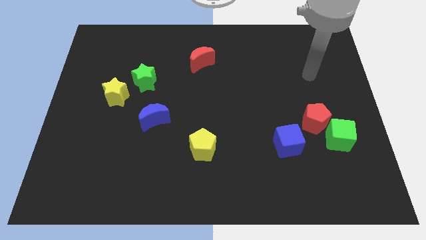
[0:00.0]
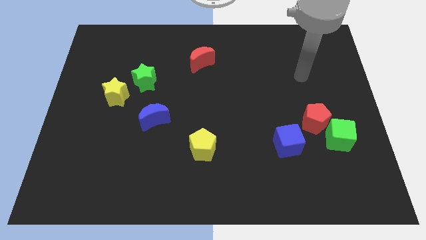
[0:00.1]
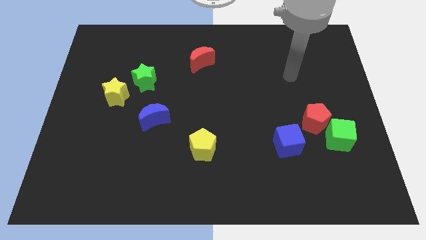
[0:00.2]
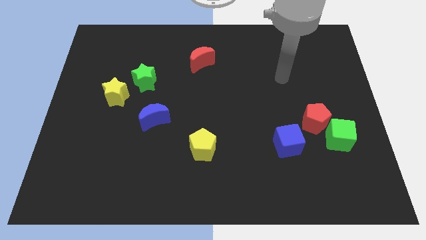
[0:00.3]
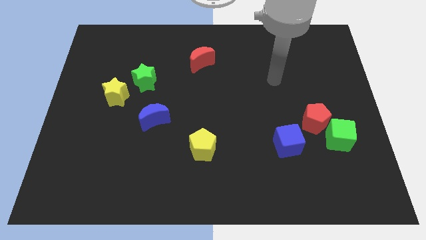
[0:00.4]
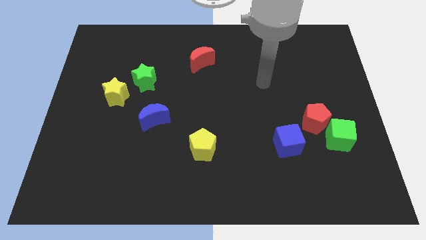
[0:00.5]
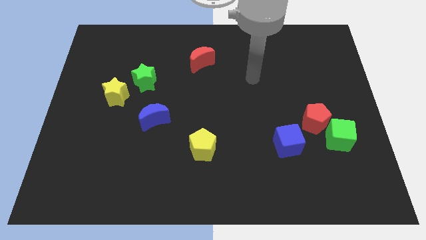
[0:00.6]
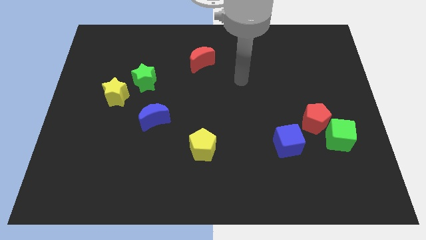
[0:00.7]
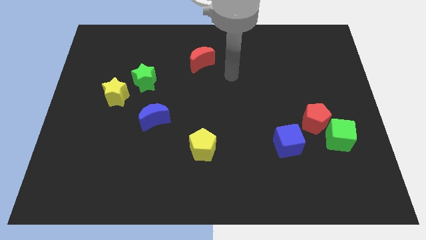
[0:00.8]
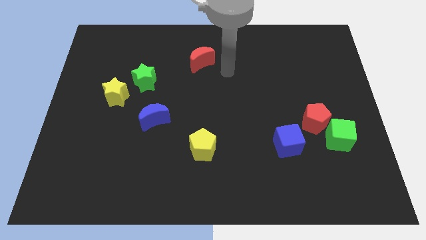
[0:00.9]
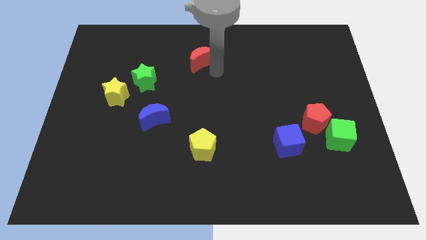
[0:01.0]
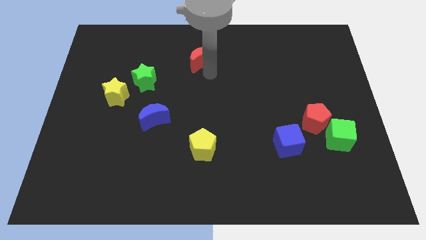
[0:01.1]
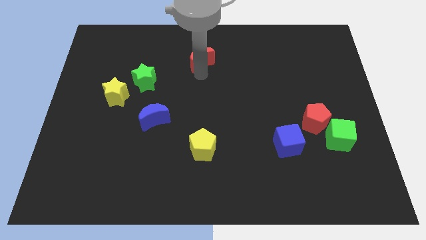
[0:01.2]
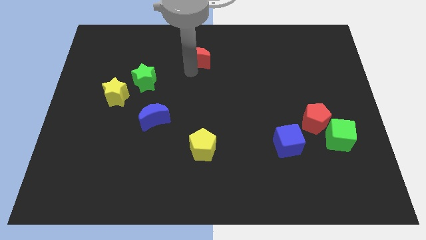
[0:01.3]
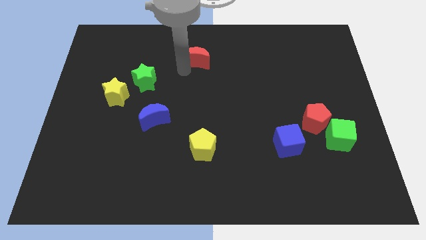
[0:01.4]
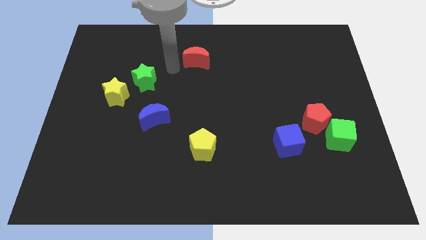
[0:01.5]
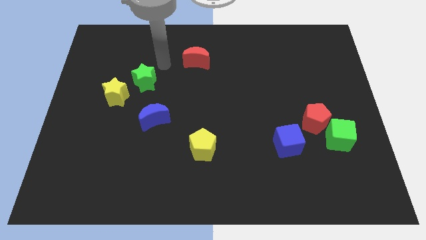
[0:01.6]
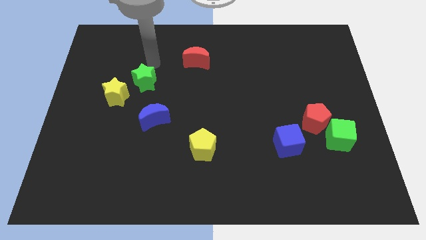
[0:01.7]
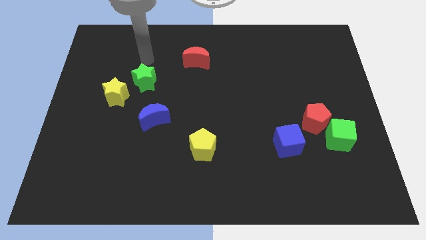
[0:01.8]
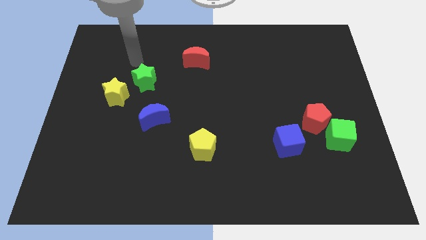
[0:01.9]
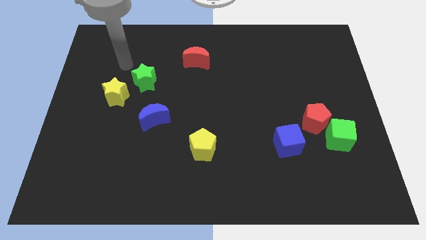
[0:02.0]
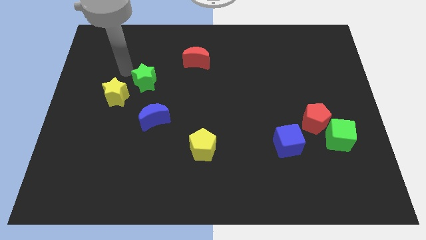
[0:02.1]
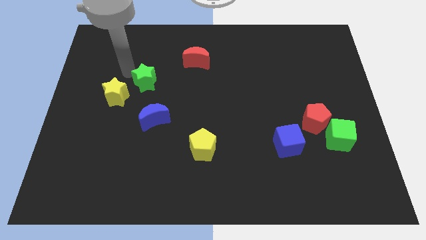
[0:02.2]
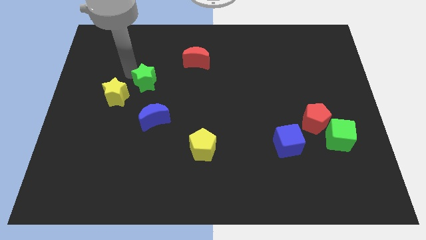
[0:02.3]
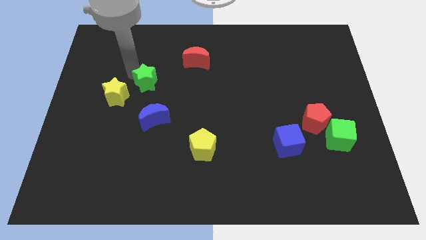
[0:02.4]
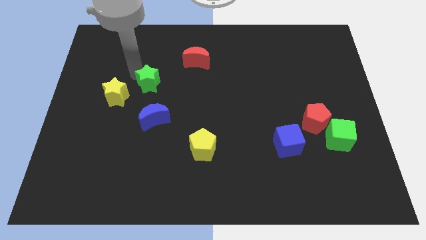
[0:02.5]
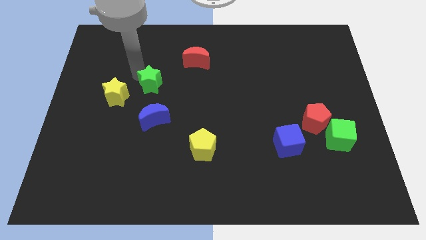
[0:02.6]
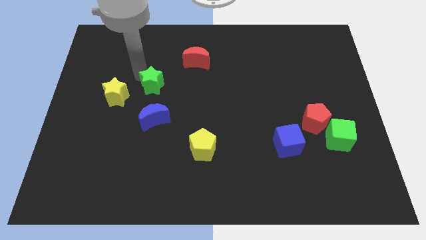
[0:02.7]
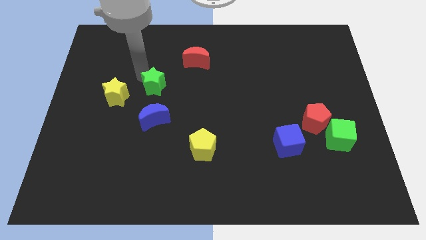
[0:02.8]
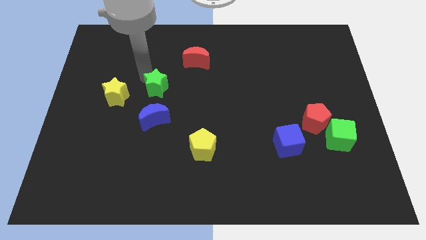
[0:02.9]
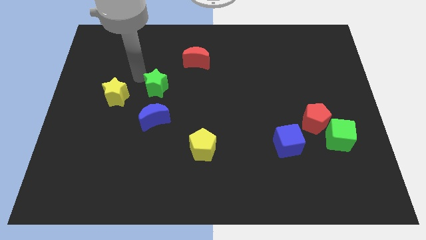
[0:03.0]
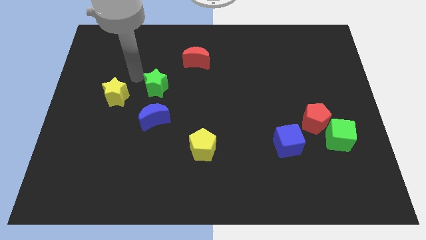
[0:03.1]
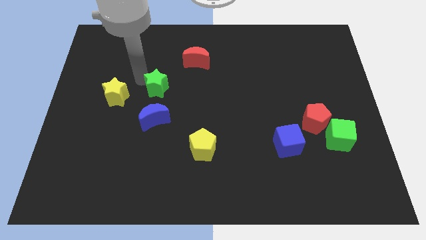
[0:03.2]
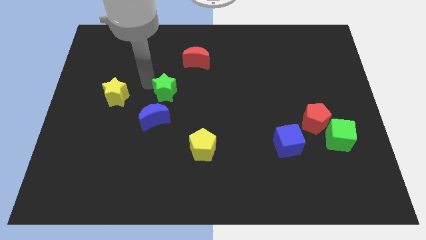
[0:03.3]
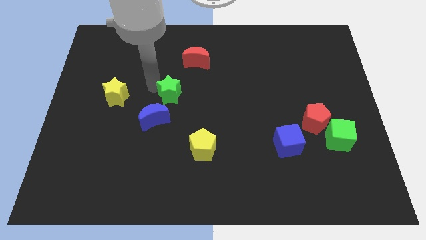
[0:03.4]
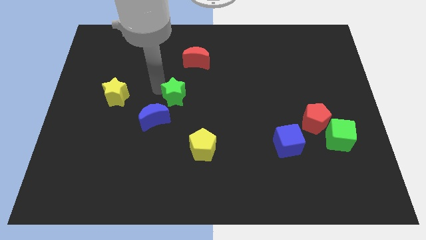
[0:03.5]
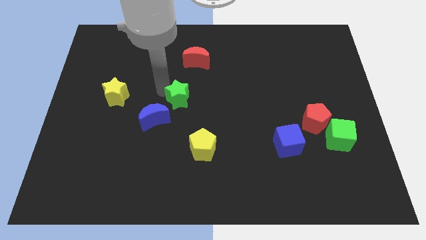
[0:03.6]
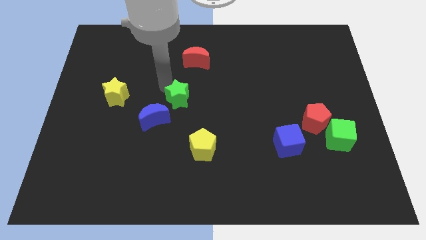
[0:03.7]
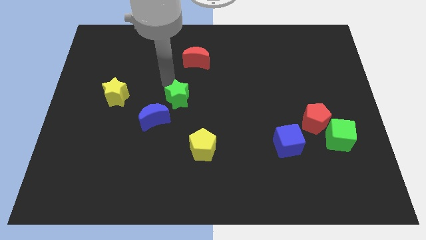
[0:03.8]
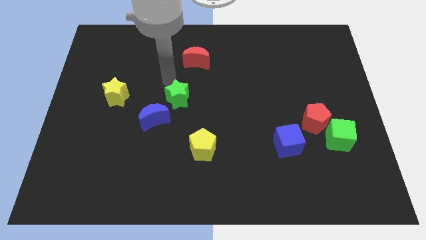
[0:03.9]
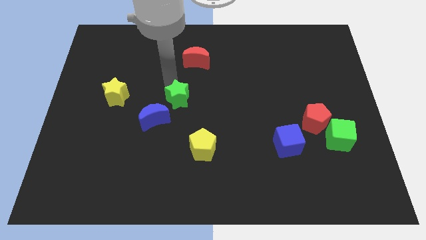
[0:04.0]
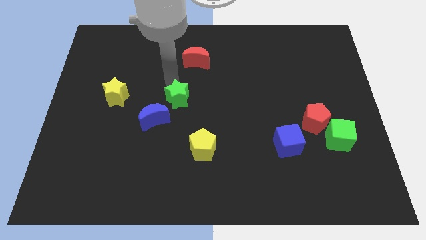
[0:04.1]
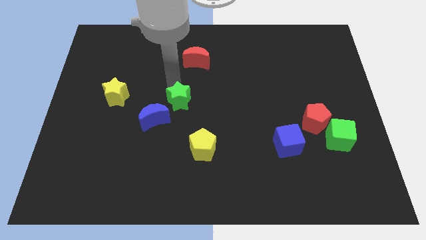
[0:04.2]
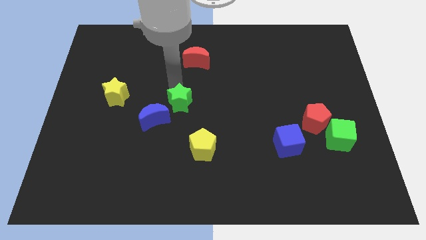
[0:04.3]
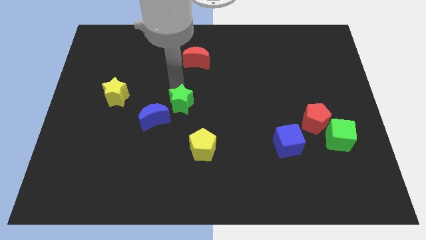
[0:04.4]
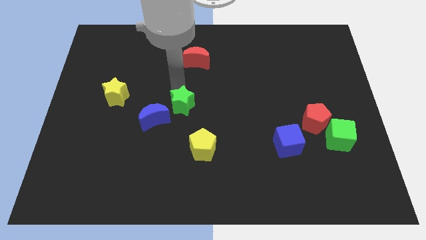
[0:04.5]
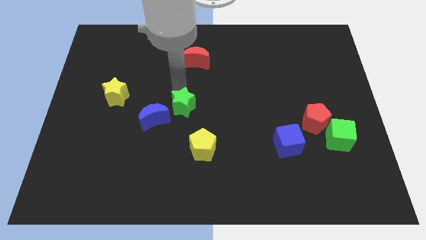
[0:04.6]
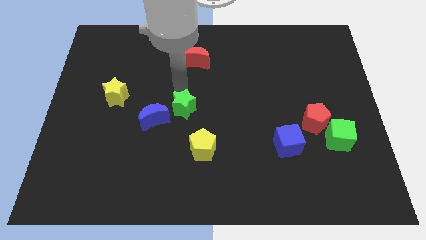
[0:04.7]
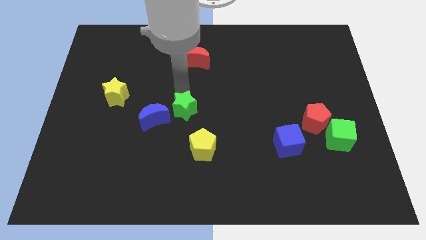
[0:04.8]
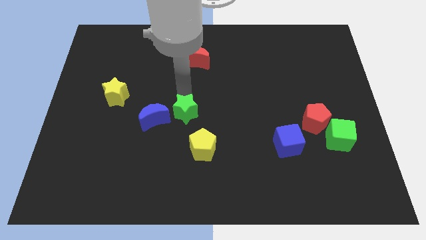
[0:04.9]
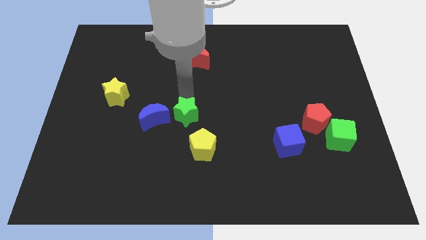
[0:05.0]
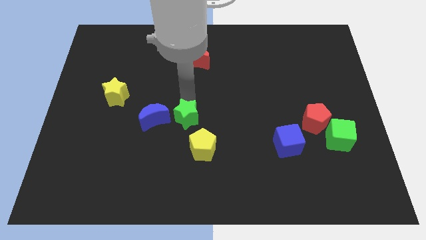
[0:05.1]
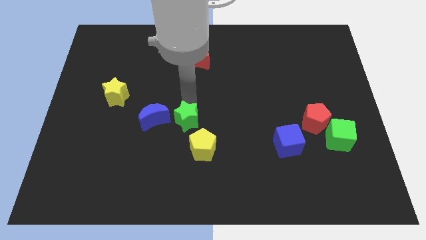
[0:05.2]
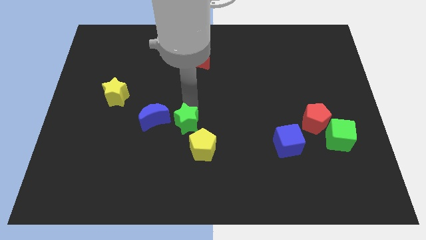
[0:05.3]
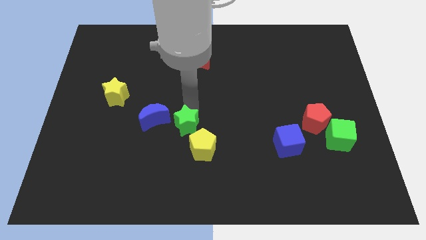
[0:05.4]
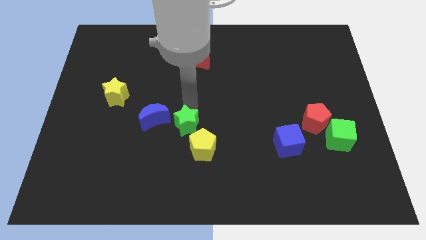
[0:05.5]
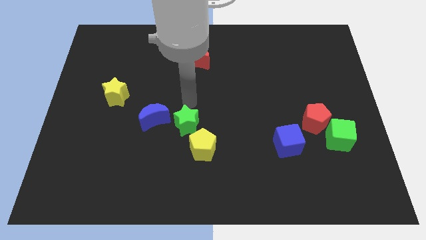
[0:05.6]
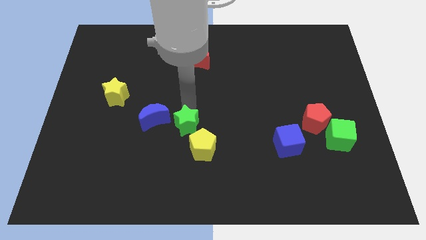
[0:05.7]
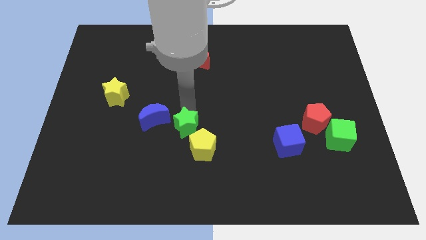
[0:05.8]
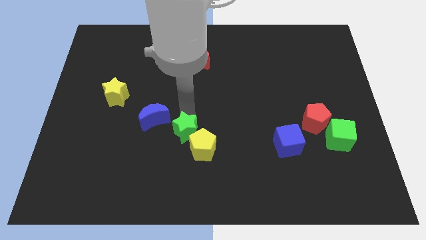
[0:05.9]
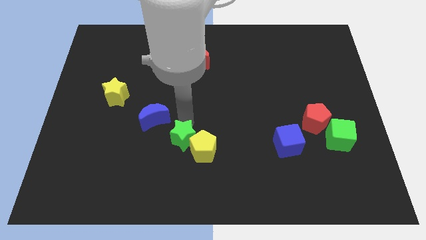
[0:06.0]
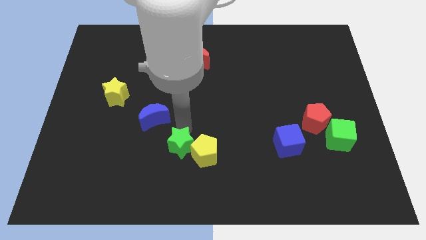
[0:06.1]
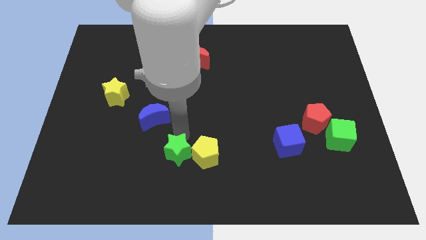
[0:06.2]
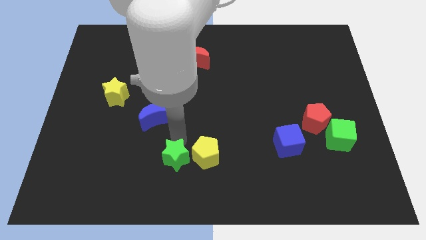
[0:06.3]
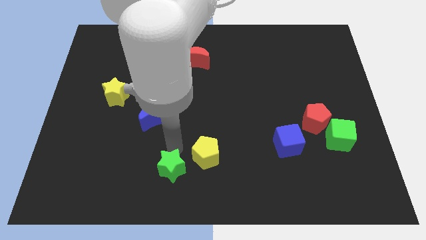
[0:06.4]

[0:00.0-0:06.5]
slide the green star to the bottom side

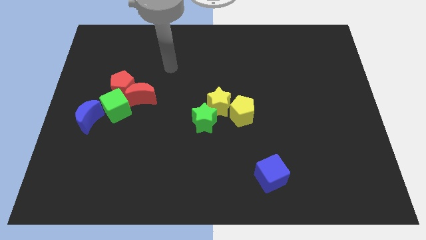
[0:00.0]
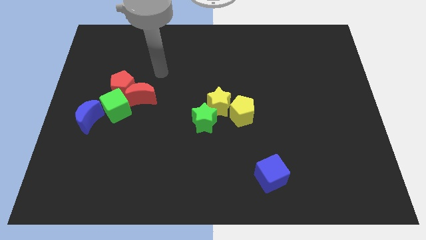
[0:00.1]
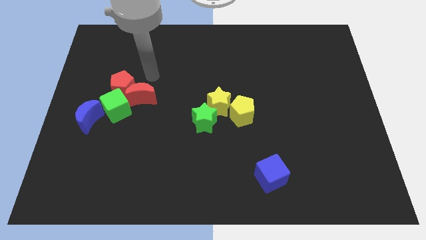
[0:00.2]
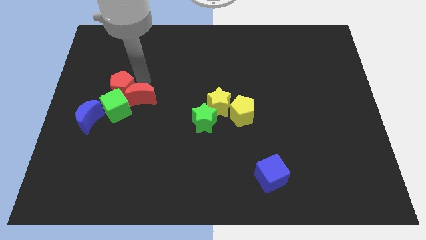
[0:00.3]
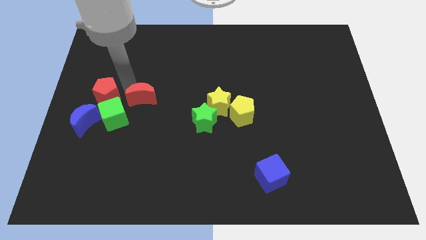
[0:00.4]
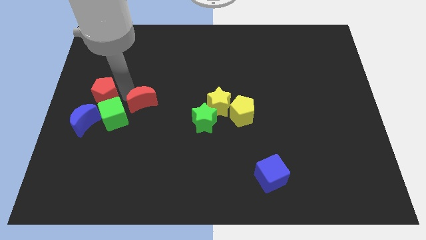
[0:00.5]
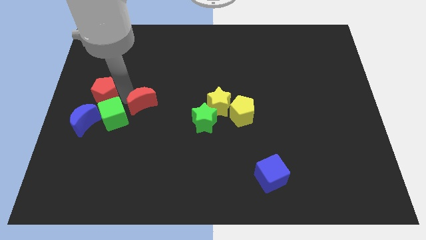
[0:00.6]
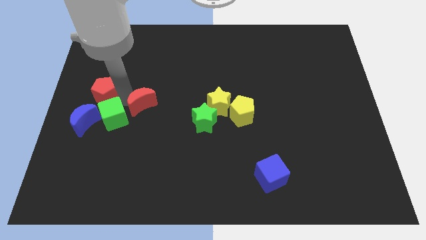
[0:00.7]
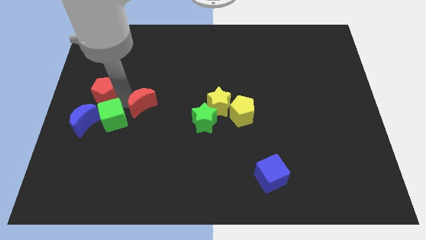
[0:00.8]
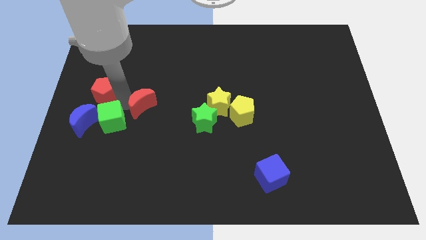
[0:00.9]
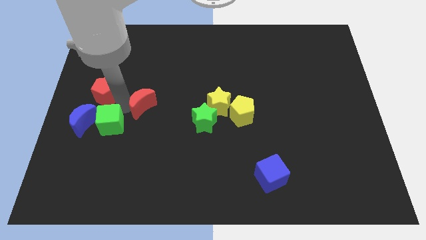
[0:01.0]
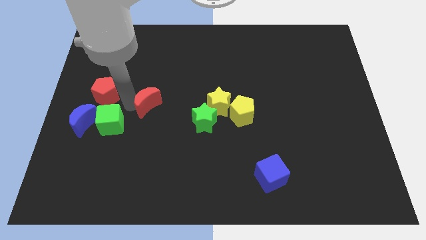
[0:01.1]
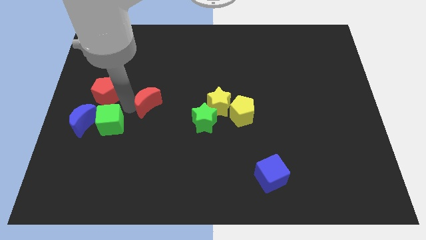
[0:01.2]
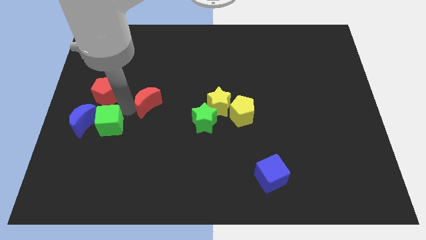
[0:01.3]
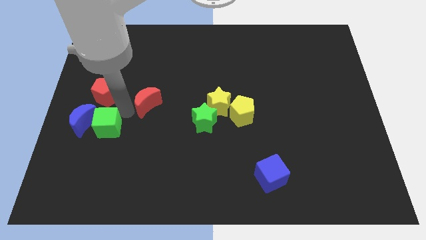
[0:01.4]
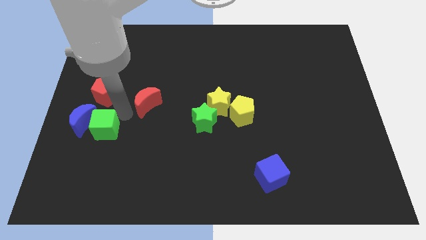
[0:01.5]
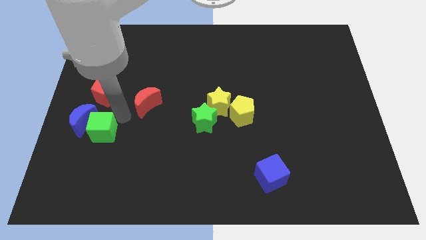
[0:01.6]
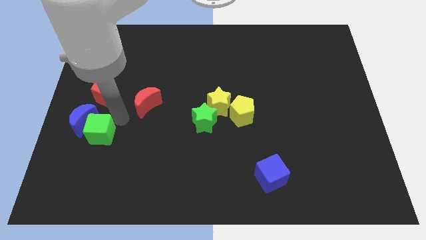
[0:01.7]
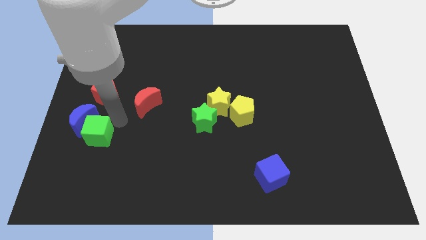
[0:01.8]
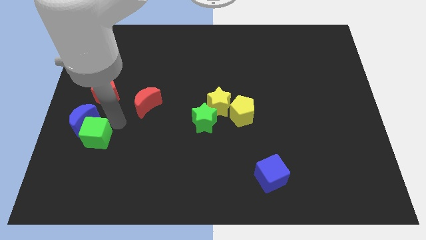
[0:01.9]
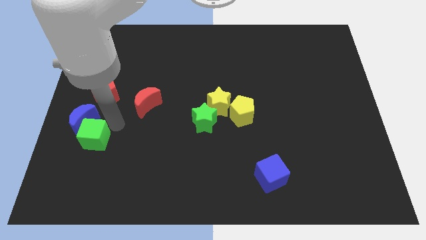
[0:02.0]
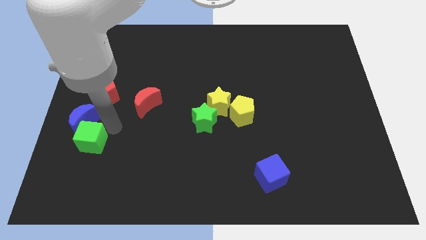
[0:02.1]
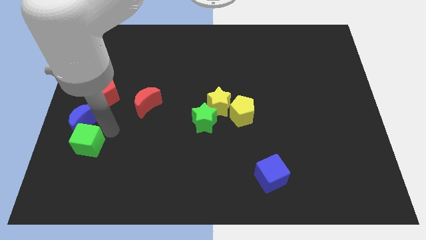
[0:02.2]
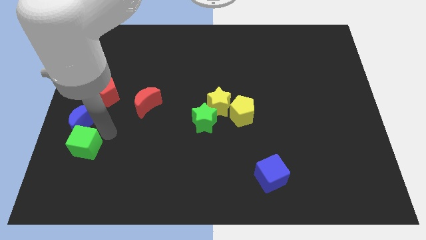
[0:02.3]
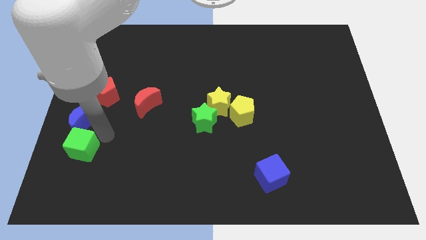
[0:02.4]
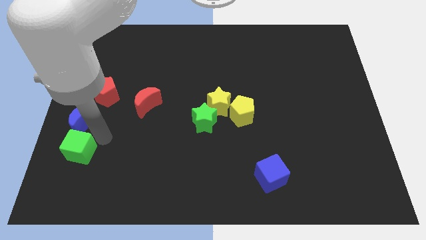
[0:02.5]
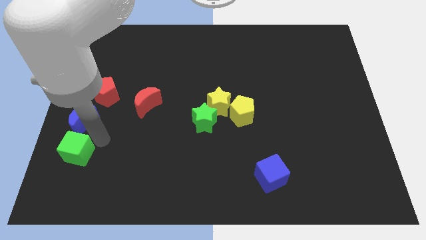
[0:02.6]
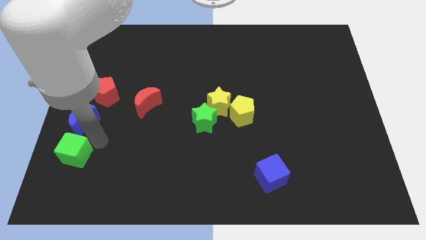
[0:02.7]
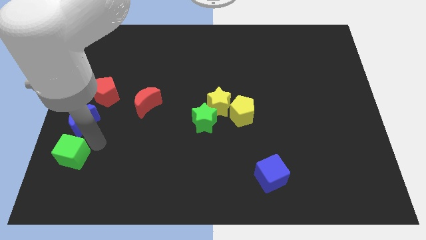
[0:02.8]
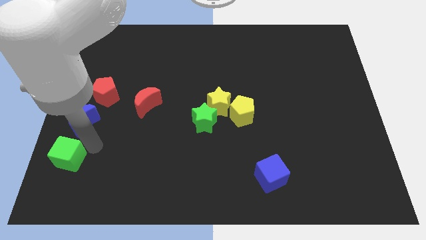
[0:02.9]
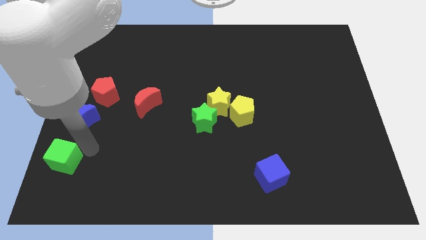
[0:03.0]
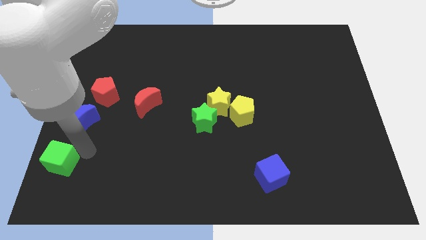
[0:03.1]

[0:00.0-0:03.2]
put the green cube to the bottom left
